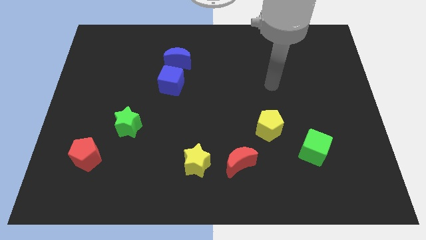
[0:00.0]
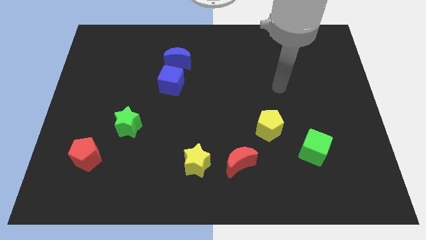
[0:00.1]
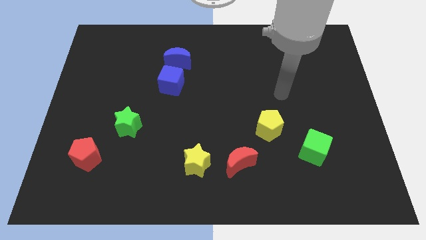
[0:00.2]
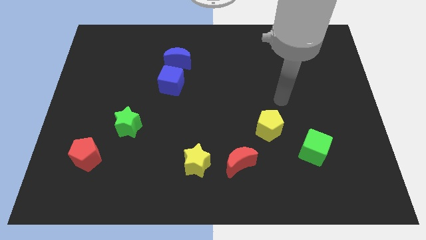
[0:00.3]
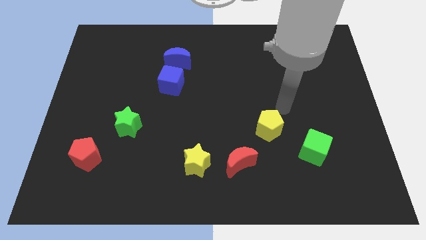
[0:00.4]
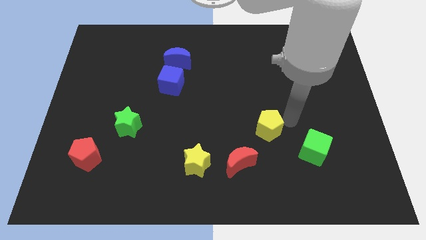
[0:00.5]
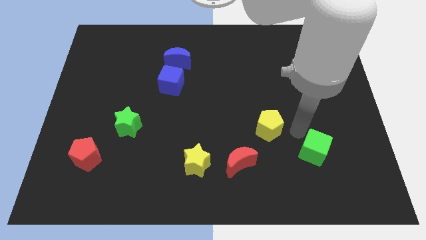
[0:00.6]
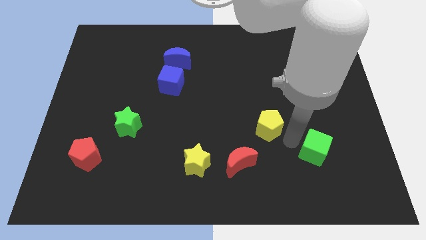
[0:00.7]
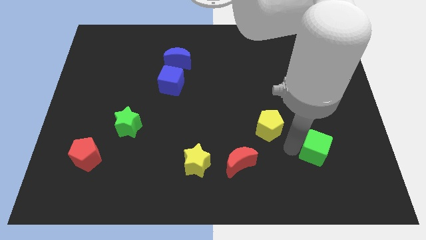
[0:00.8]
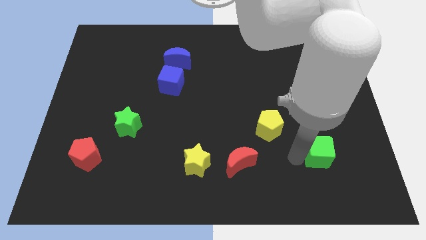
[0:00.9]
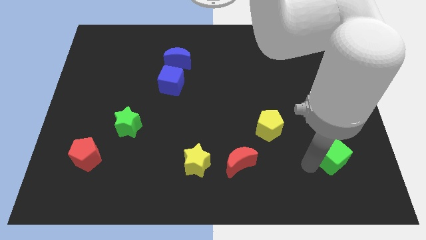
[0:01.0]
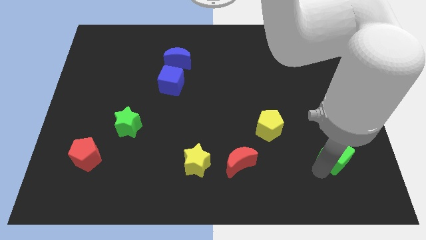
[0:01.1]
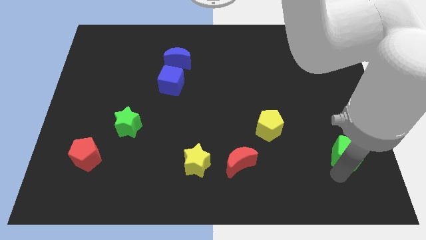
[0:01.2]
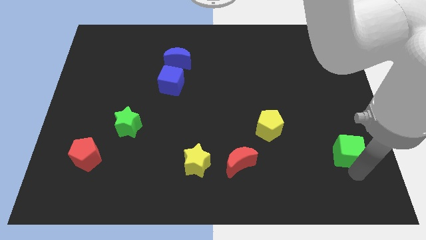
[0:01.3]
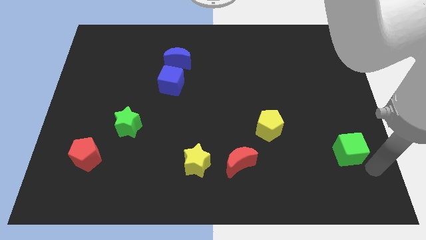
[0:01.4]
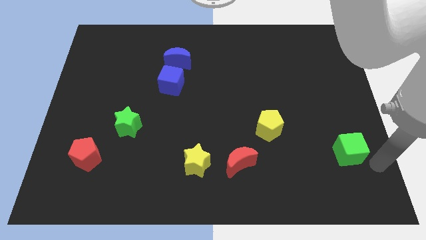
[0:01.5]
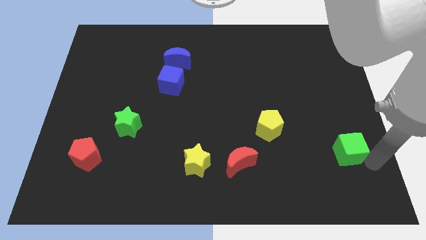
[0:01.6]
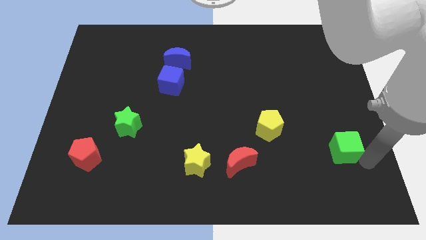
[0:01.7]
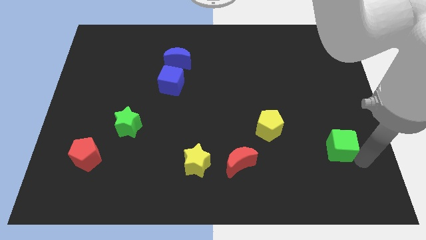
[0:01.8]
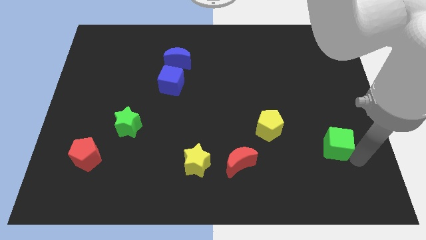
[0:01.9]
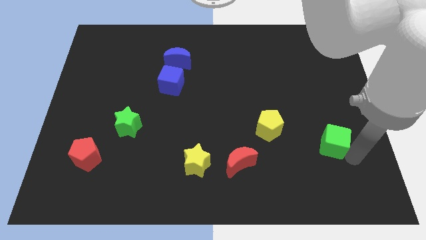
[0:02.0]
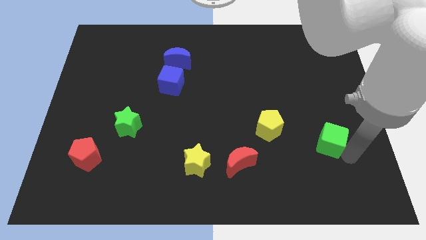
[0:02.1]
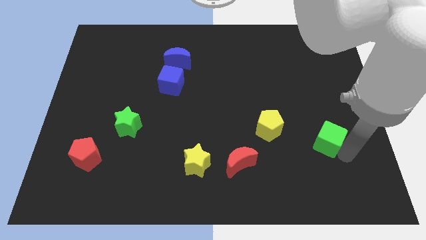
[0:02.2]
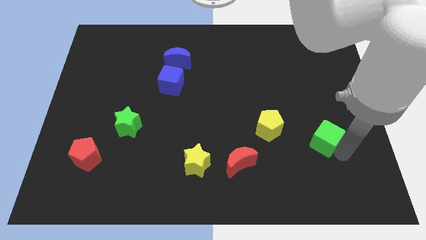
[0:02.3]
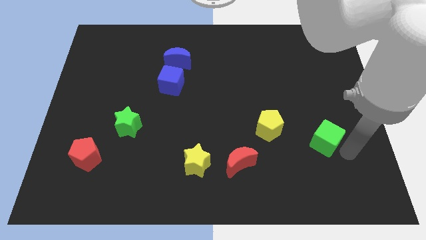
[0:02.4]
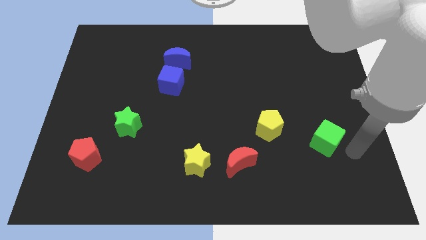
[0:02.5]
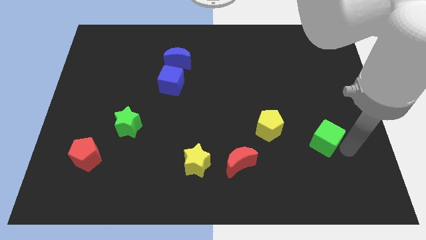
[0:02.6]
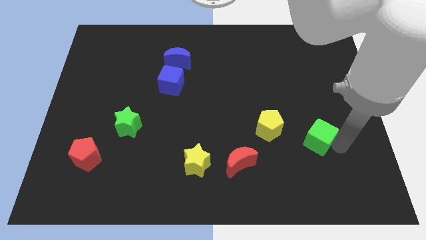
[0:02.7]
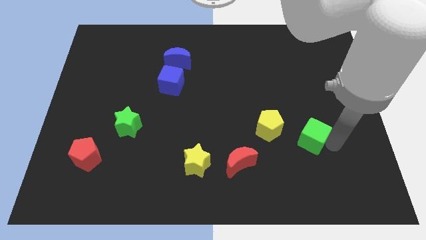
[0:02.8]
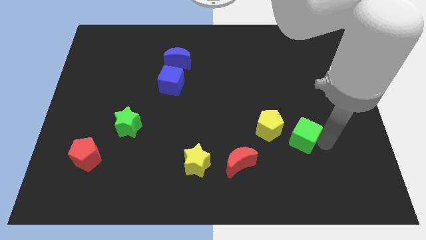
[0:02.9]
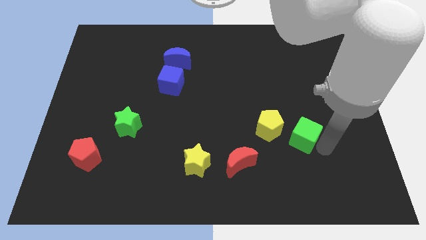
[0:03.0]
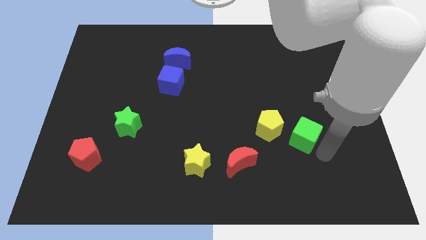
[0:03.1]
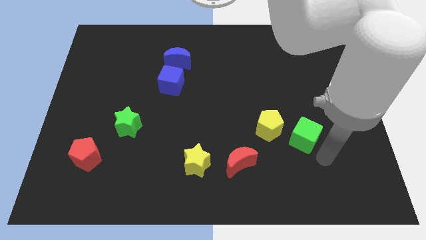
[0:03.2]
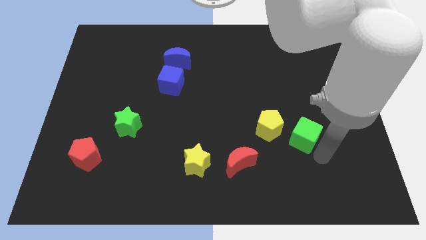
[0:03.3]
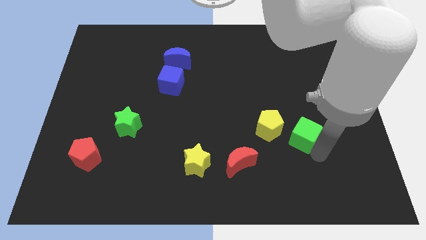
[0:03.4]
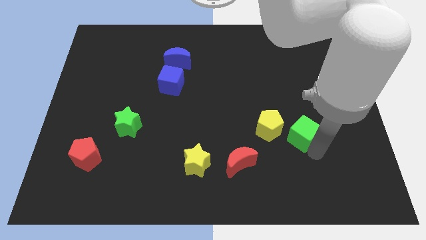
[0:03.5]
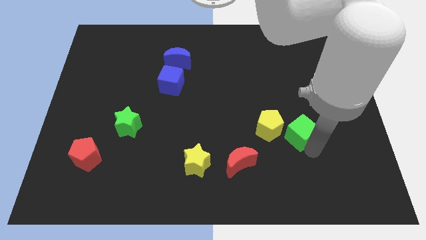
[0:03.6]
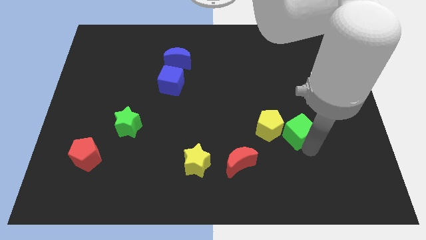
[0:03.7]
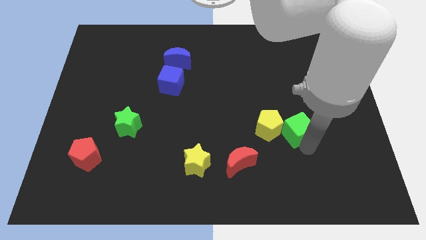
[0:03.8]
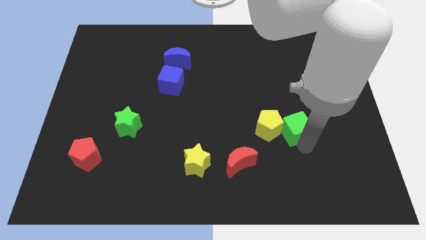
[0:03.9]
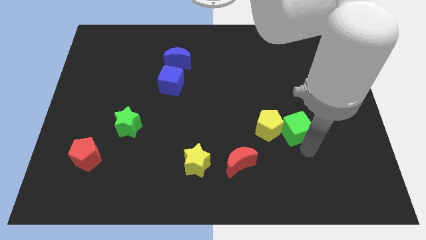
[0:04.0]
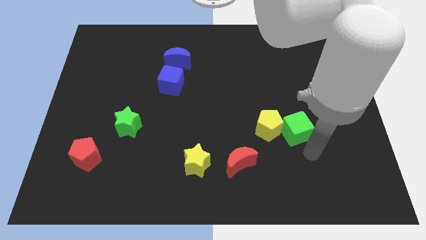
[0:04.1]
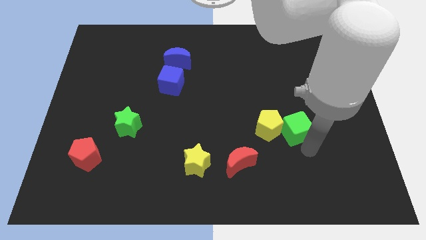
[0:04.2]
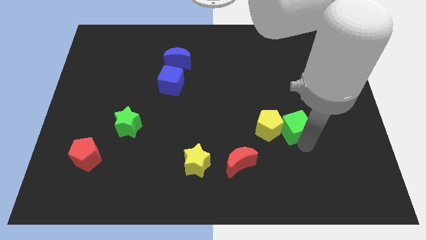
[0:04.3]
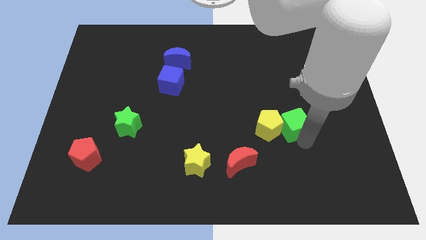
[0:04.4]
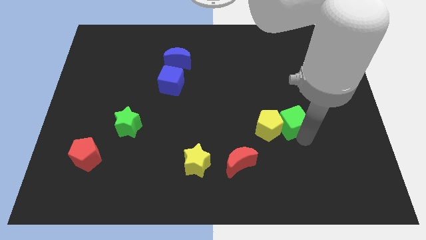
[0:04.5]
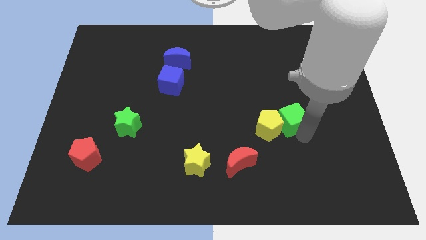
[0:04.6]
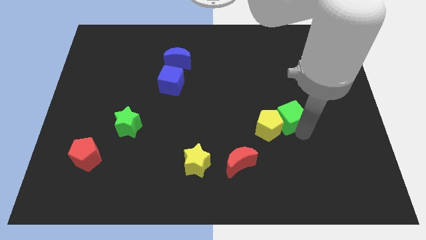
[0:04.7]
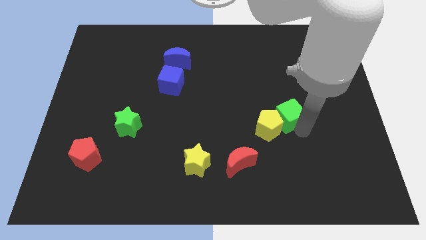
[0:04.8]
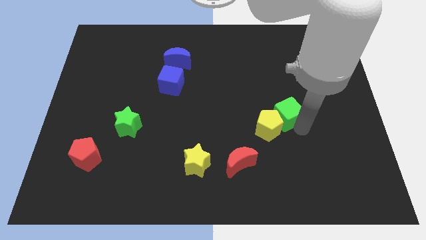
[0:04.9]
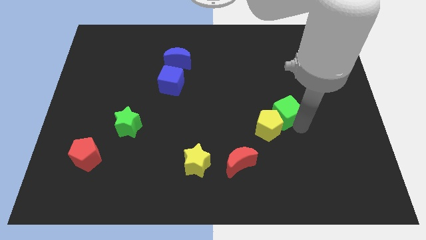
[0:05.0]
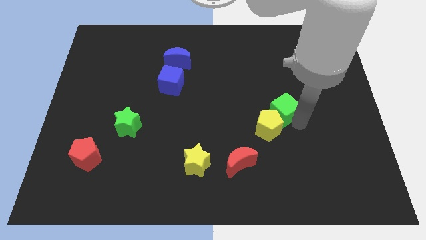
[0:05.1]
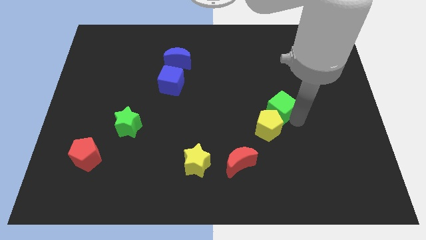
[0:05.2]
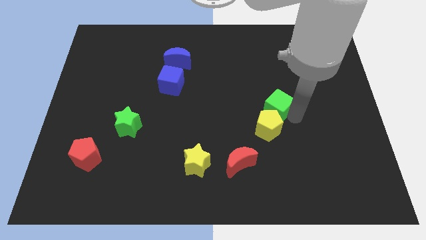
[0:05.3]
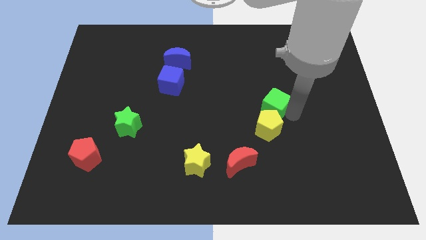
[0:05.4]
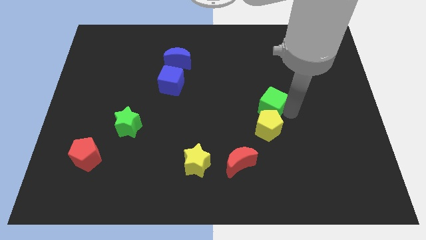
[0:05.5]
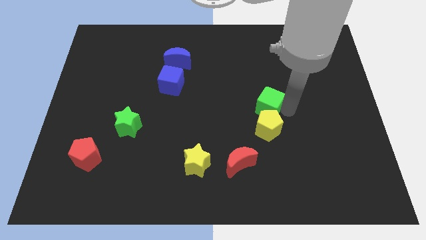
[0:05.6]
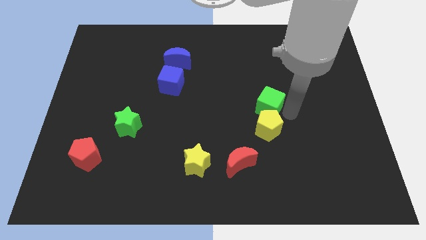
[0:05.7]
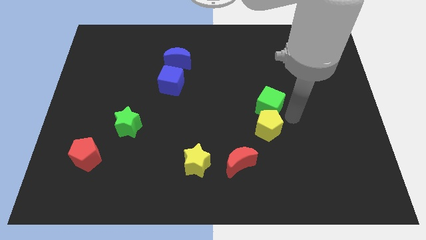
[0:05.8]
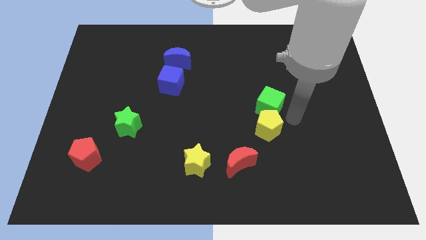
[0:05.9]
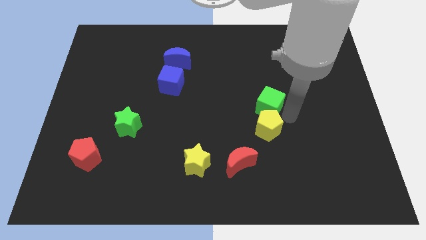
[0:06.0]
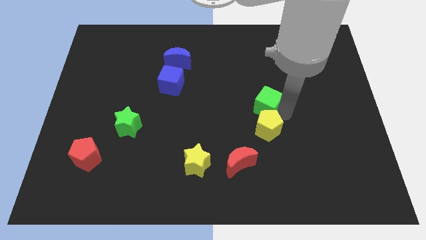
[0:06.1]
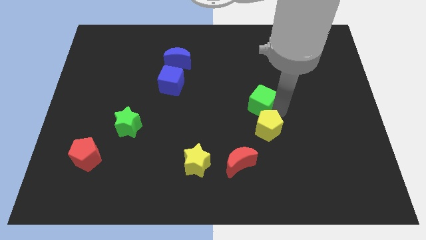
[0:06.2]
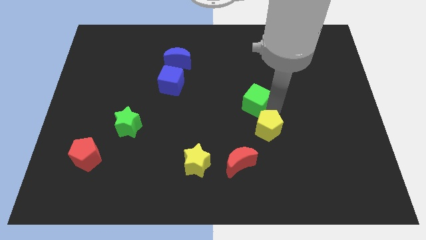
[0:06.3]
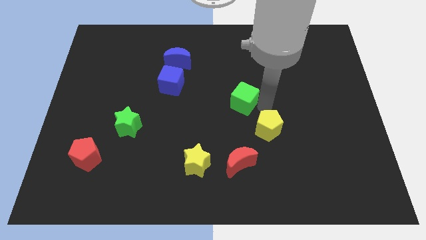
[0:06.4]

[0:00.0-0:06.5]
slide the green cube up and to the left diagonally

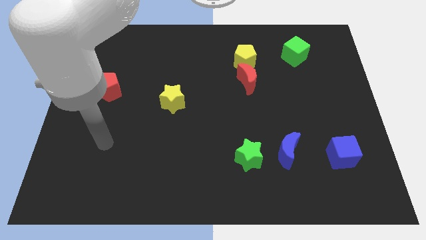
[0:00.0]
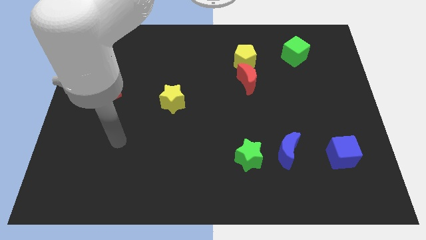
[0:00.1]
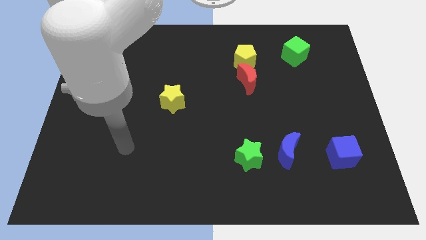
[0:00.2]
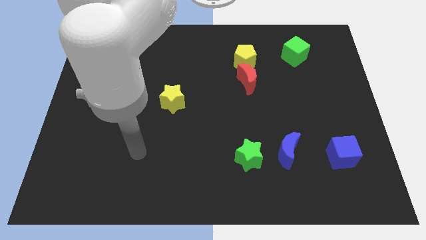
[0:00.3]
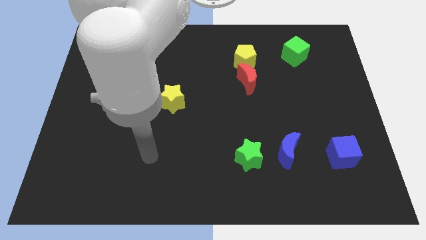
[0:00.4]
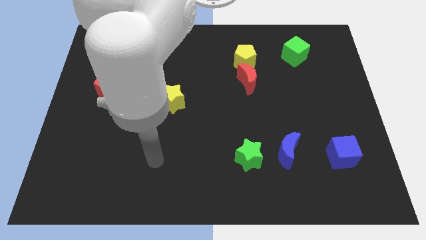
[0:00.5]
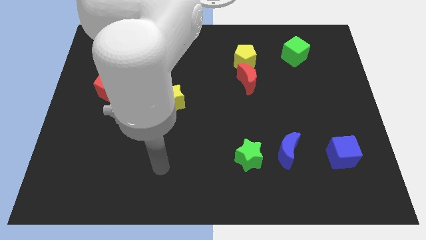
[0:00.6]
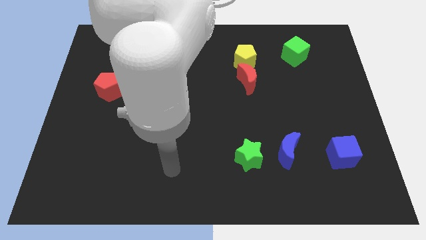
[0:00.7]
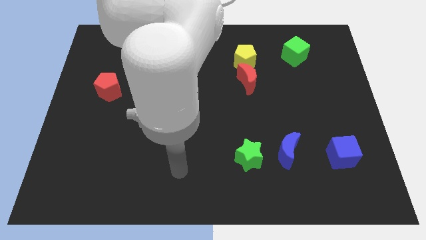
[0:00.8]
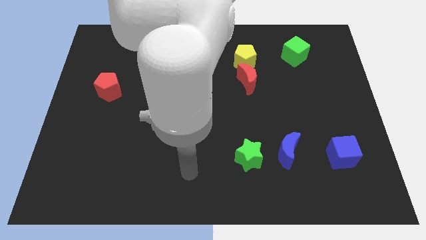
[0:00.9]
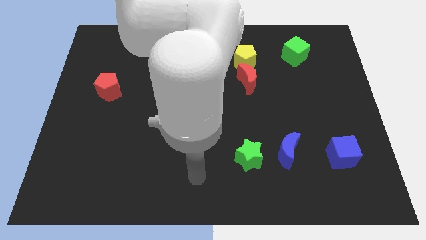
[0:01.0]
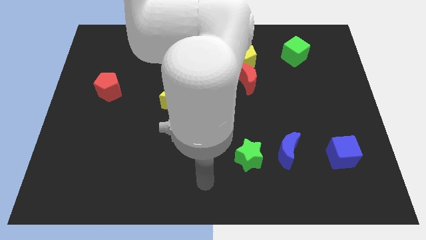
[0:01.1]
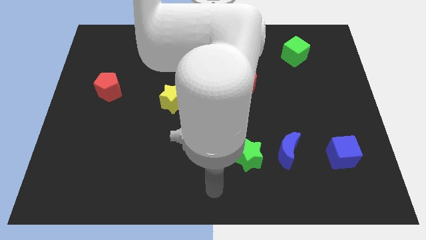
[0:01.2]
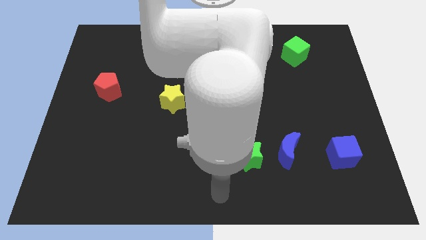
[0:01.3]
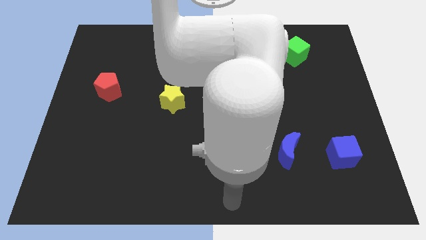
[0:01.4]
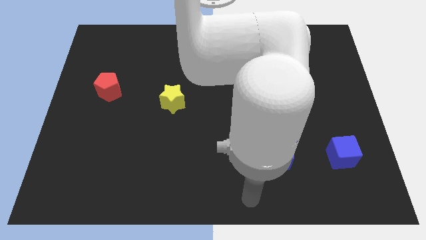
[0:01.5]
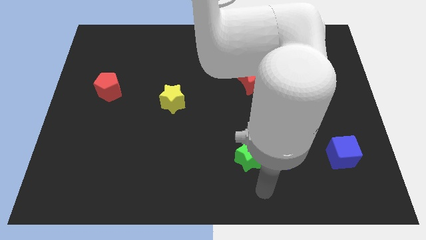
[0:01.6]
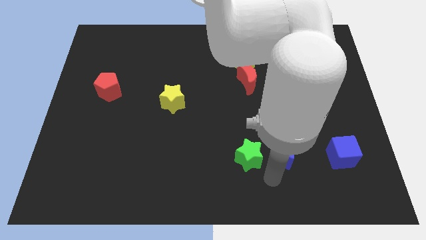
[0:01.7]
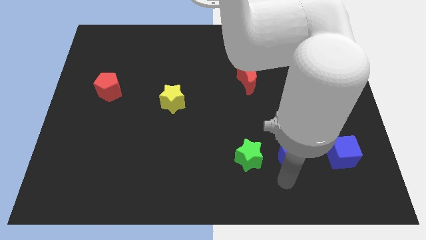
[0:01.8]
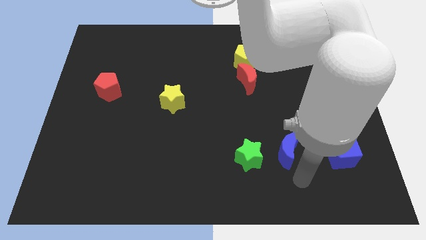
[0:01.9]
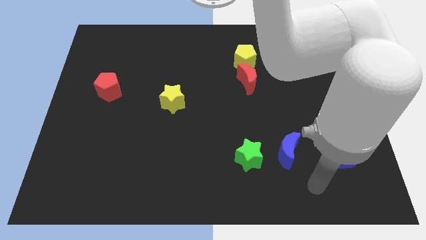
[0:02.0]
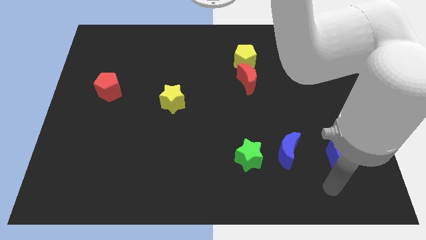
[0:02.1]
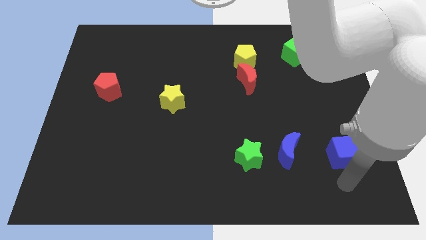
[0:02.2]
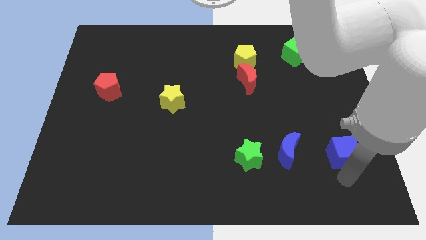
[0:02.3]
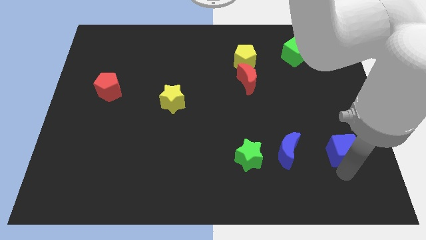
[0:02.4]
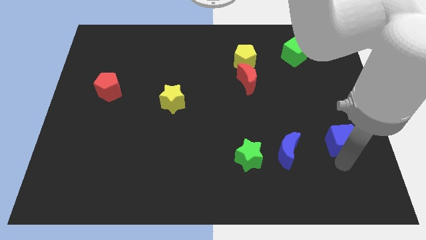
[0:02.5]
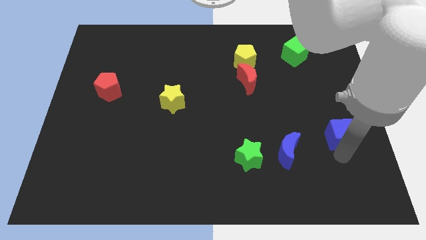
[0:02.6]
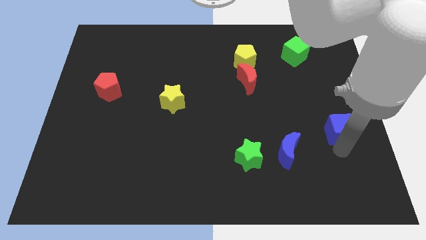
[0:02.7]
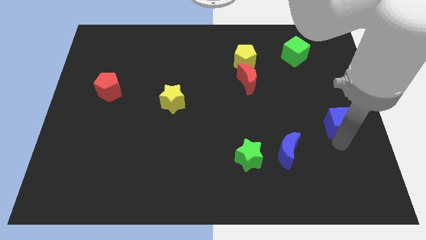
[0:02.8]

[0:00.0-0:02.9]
move the blue cube upwards somewhat
